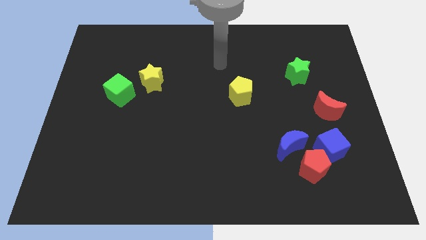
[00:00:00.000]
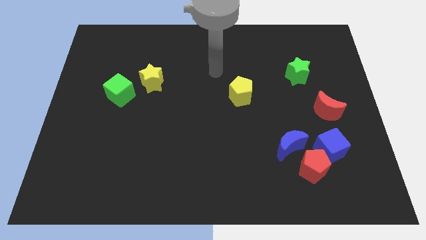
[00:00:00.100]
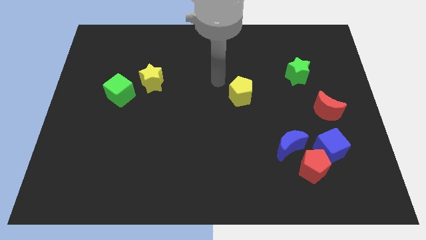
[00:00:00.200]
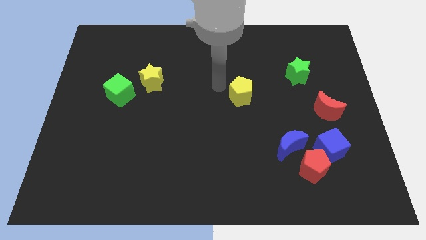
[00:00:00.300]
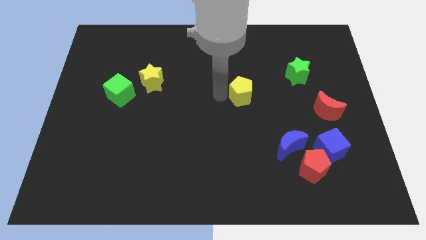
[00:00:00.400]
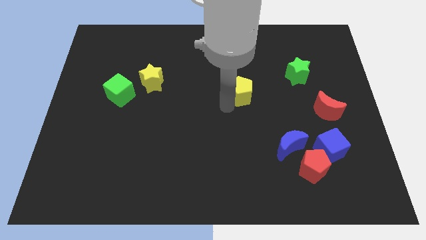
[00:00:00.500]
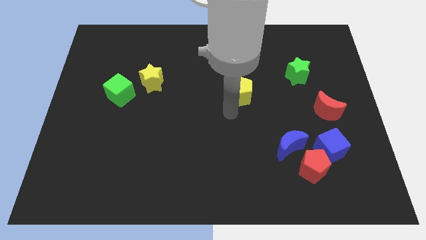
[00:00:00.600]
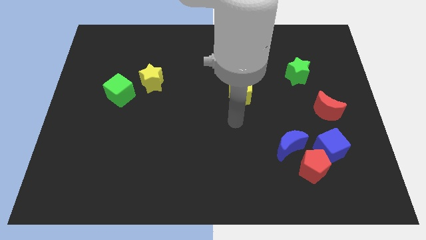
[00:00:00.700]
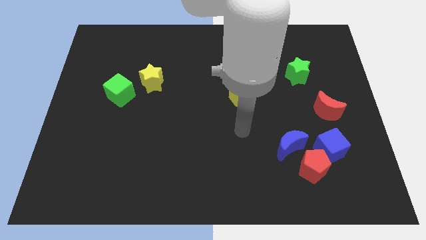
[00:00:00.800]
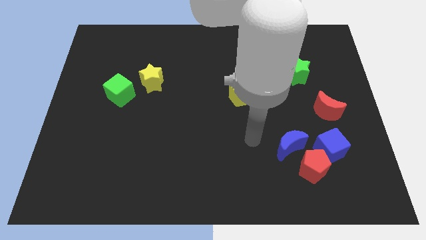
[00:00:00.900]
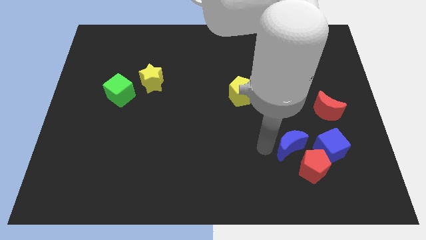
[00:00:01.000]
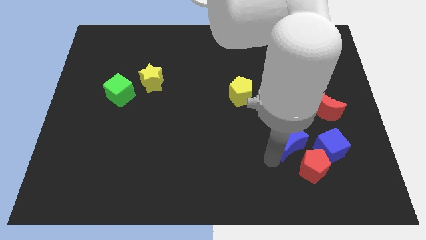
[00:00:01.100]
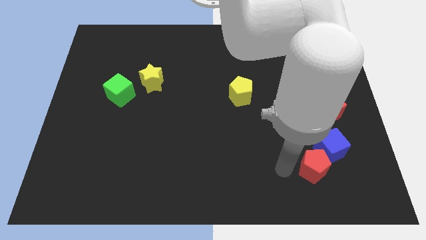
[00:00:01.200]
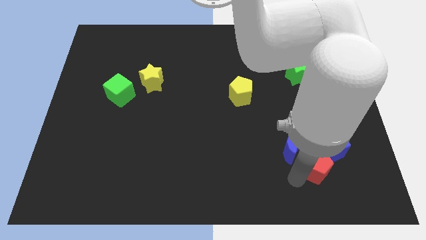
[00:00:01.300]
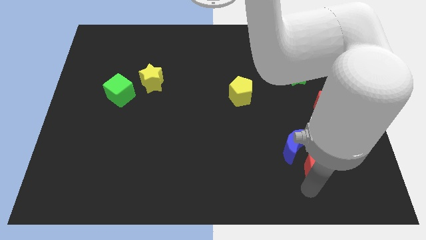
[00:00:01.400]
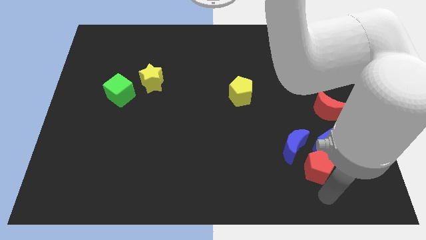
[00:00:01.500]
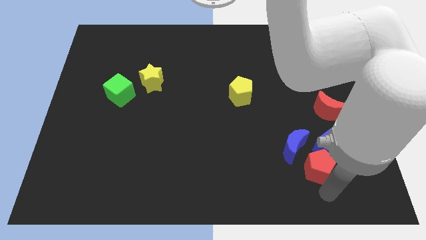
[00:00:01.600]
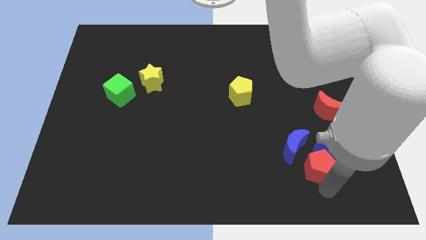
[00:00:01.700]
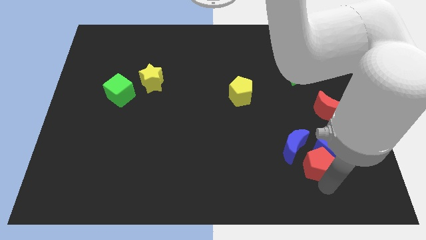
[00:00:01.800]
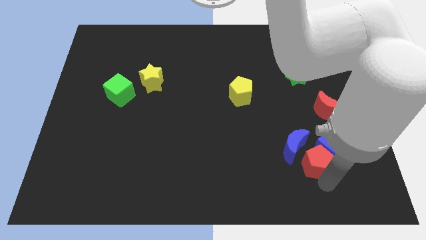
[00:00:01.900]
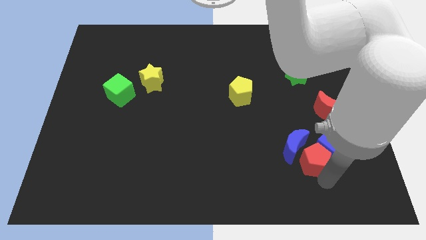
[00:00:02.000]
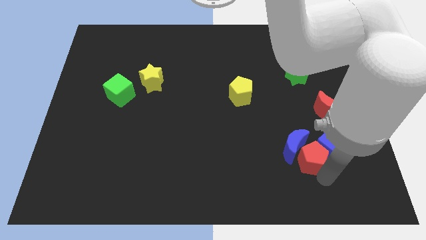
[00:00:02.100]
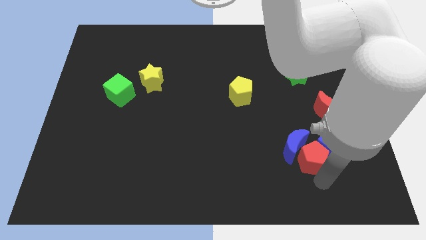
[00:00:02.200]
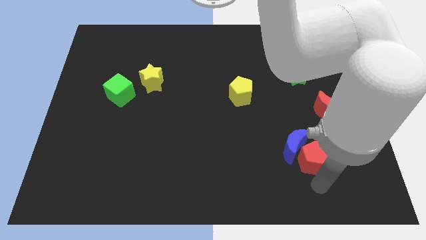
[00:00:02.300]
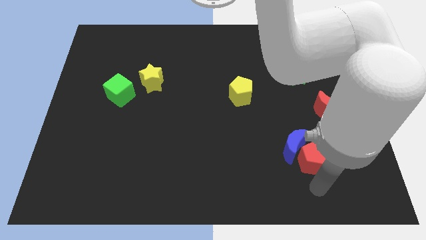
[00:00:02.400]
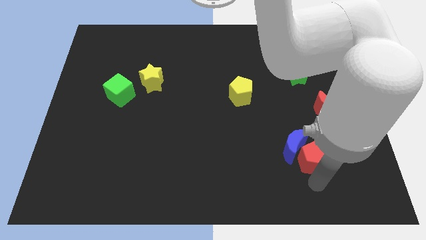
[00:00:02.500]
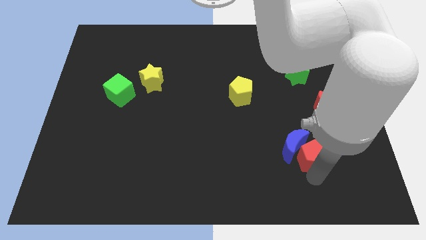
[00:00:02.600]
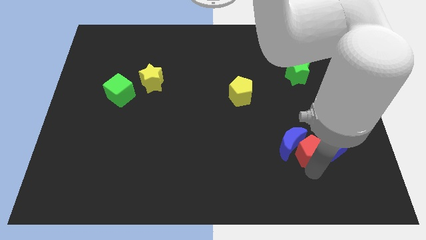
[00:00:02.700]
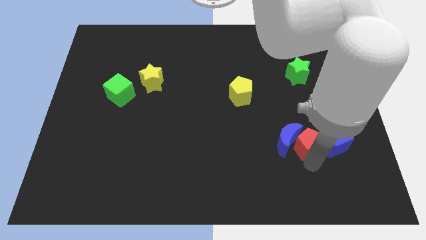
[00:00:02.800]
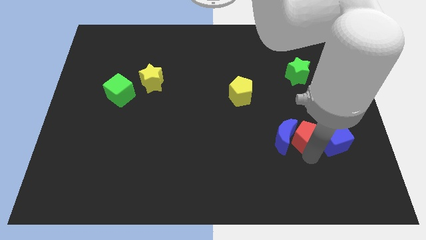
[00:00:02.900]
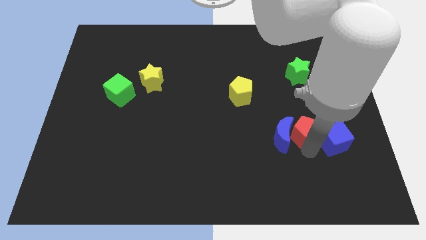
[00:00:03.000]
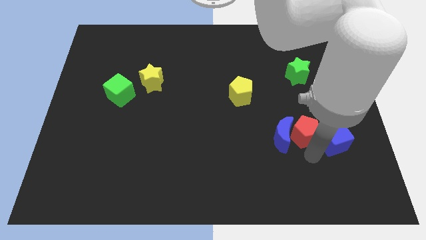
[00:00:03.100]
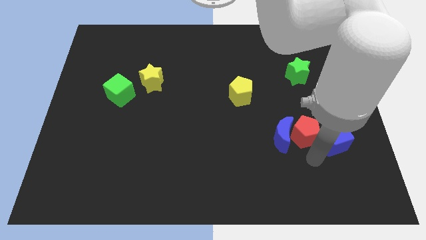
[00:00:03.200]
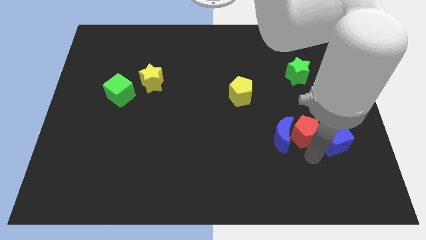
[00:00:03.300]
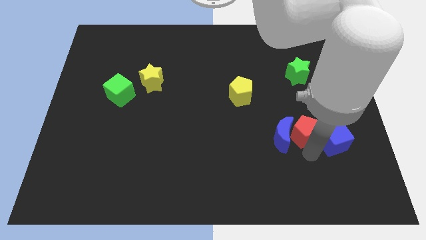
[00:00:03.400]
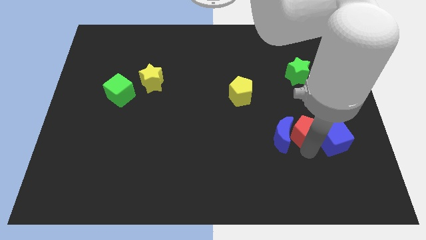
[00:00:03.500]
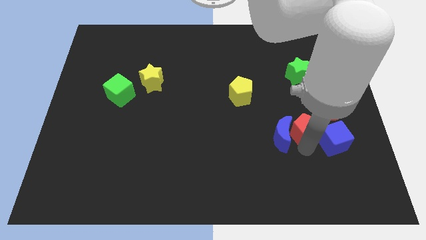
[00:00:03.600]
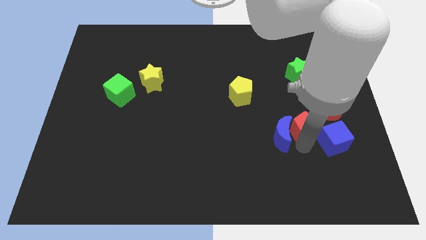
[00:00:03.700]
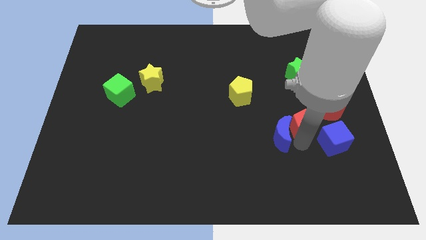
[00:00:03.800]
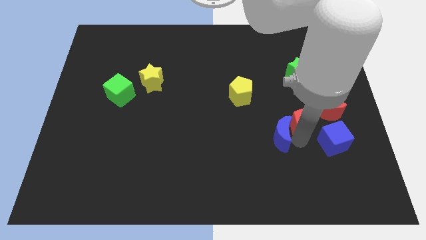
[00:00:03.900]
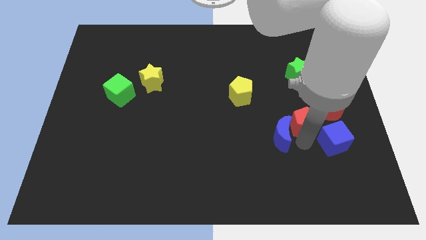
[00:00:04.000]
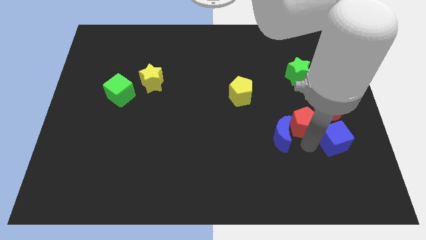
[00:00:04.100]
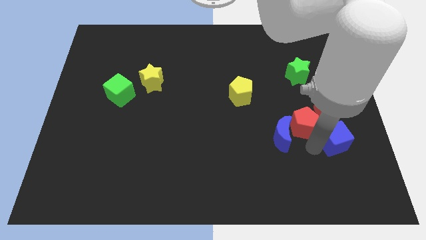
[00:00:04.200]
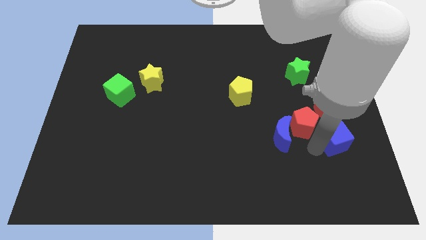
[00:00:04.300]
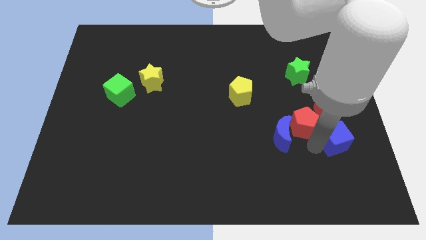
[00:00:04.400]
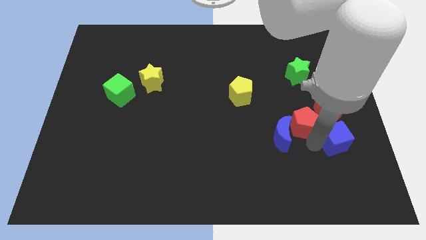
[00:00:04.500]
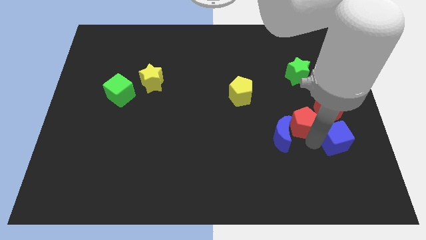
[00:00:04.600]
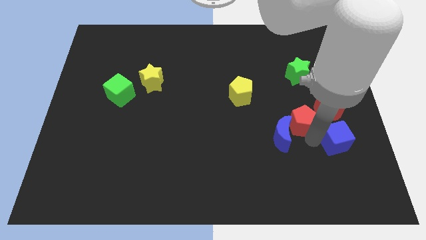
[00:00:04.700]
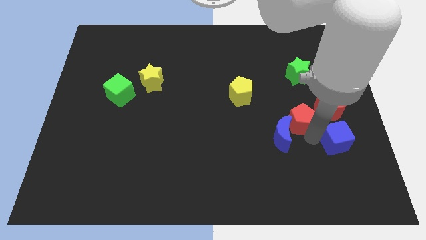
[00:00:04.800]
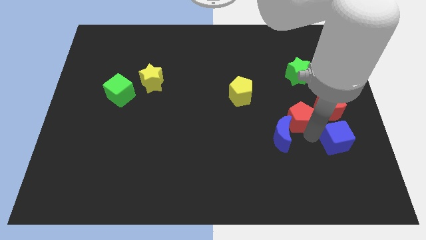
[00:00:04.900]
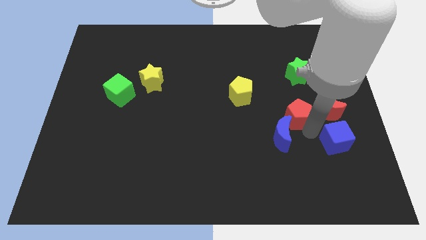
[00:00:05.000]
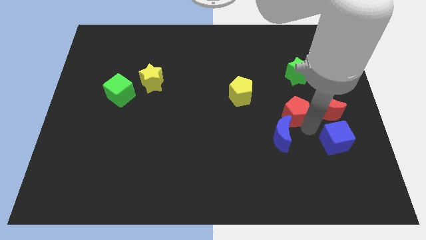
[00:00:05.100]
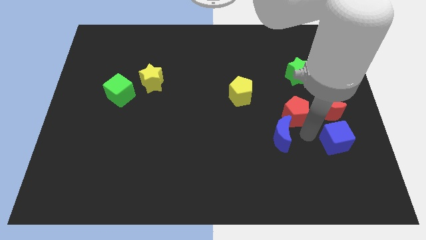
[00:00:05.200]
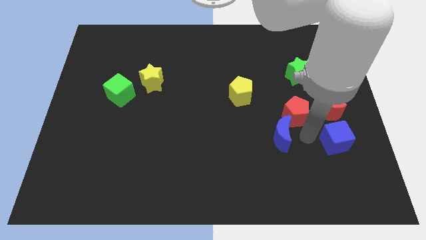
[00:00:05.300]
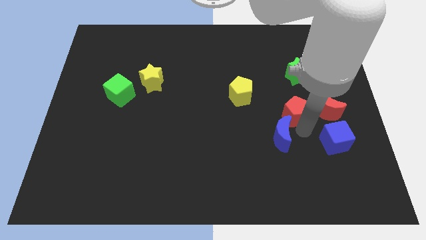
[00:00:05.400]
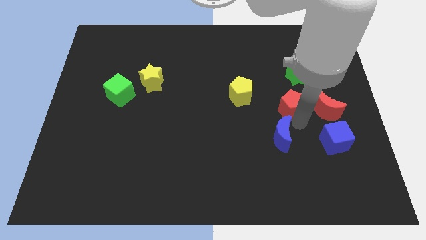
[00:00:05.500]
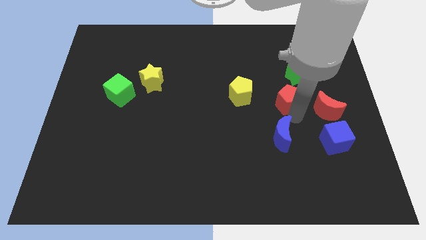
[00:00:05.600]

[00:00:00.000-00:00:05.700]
put the red pentagon diagonally down and to the left of the green star
